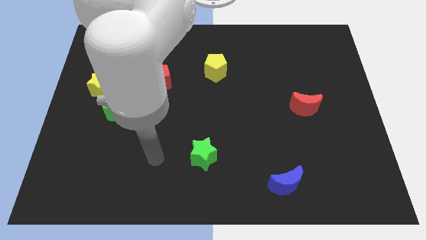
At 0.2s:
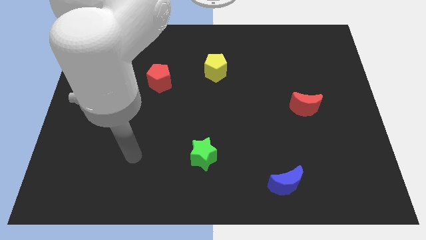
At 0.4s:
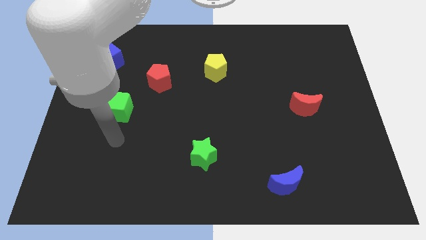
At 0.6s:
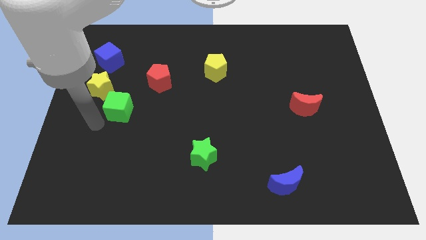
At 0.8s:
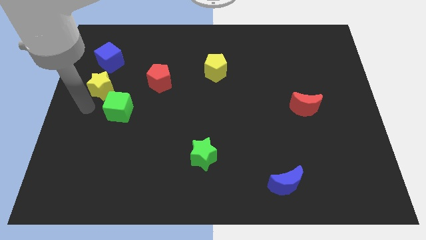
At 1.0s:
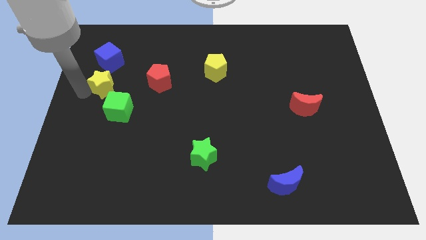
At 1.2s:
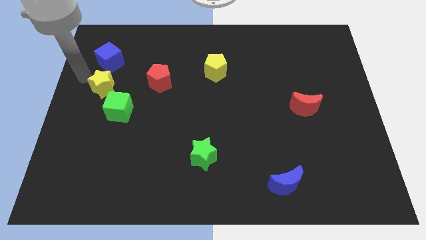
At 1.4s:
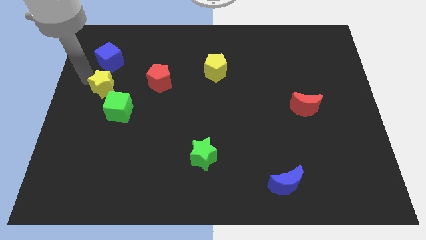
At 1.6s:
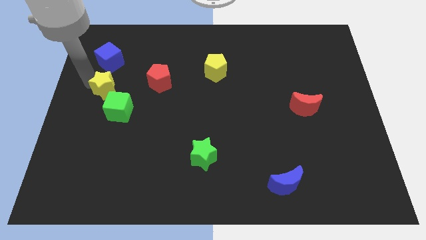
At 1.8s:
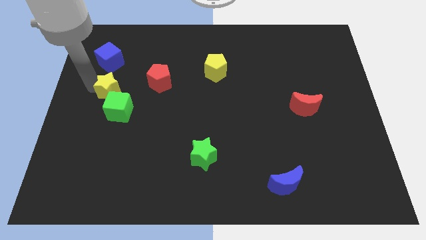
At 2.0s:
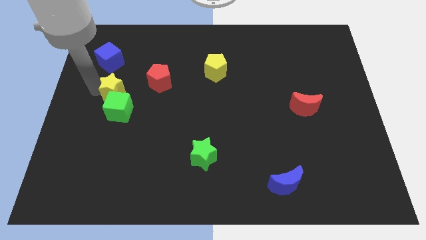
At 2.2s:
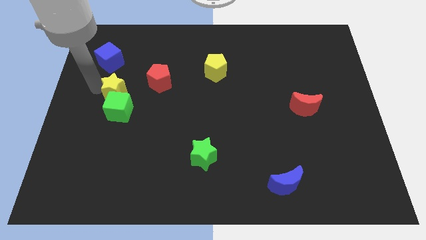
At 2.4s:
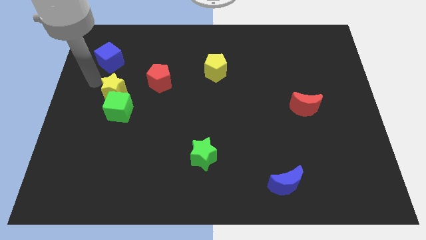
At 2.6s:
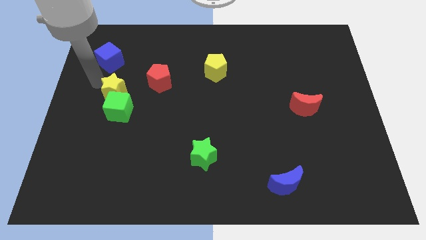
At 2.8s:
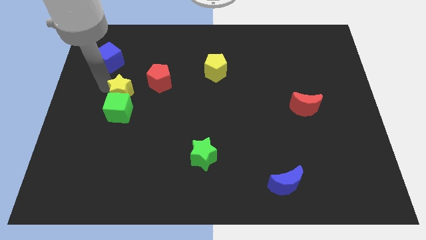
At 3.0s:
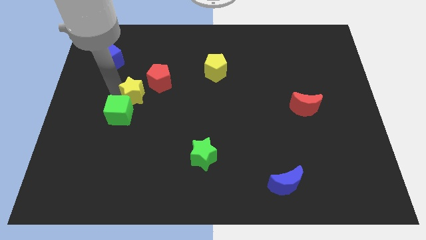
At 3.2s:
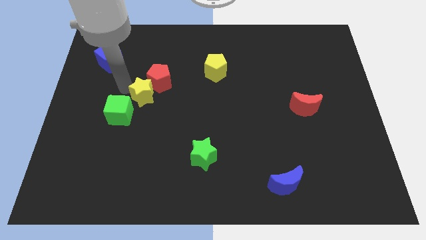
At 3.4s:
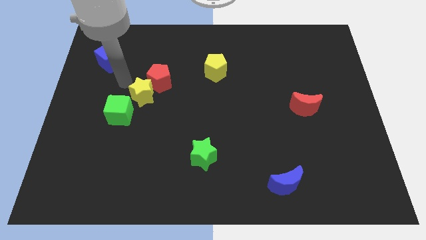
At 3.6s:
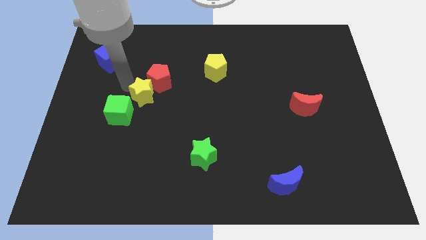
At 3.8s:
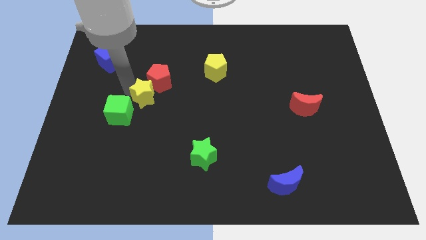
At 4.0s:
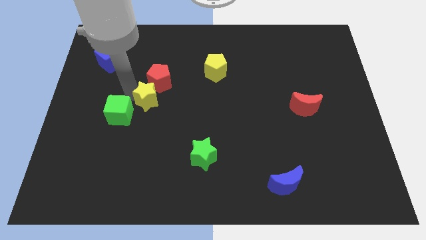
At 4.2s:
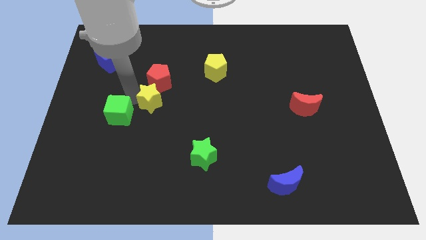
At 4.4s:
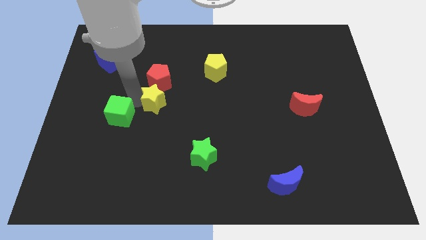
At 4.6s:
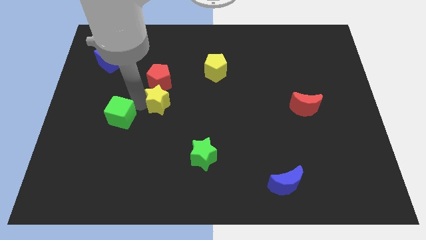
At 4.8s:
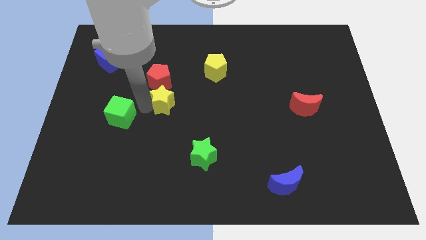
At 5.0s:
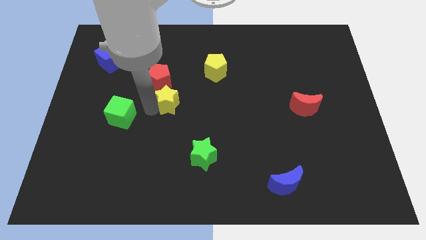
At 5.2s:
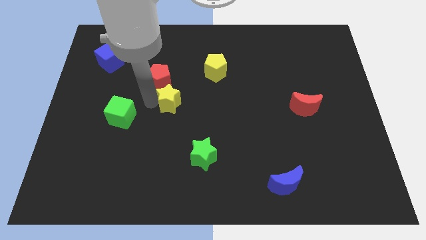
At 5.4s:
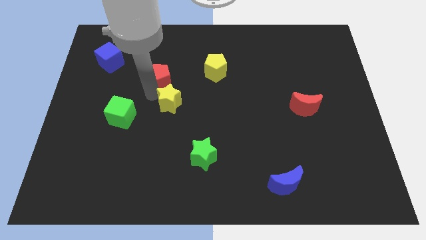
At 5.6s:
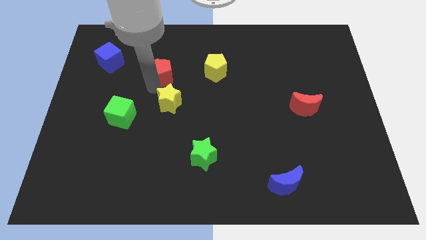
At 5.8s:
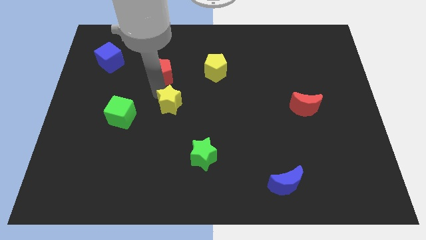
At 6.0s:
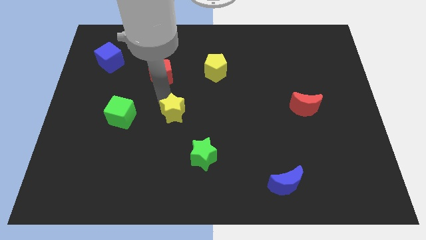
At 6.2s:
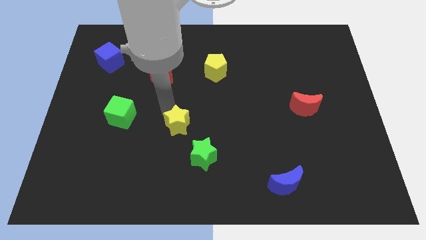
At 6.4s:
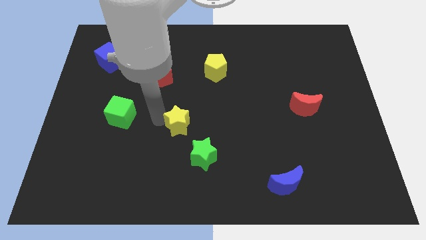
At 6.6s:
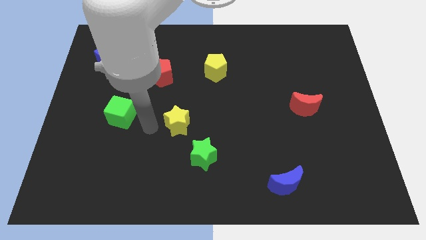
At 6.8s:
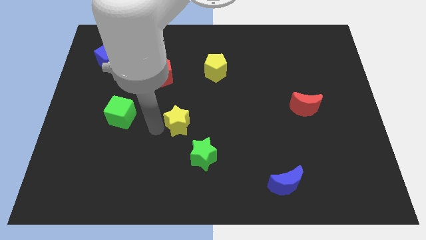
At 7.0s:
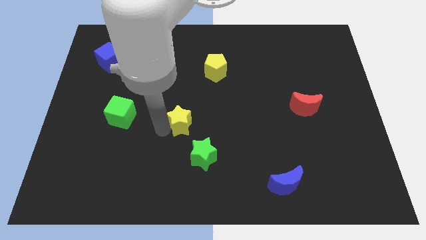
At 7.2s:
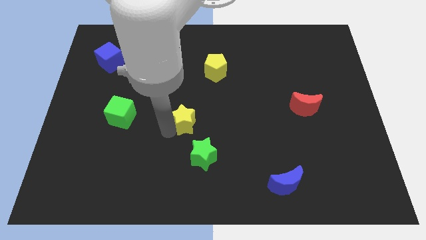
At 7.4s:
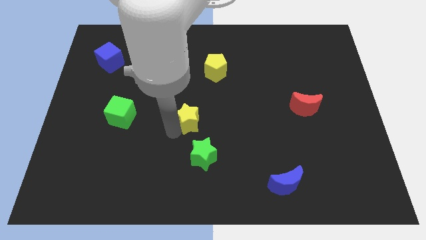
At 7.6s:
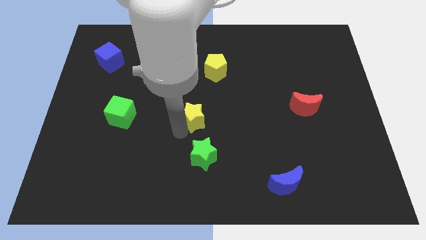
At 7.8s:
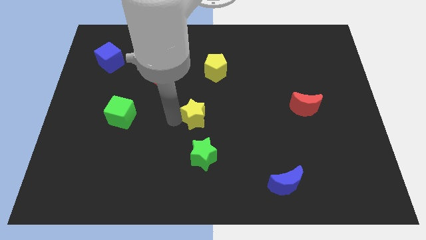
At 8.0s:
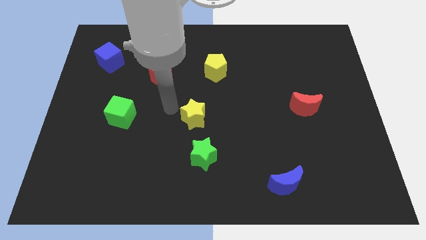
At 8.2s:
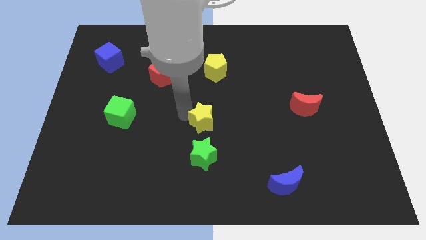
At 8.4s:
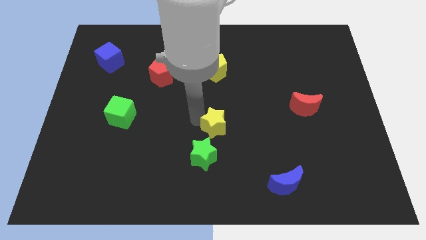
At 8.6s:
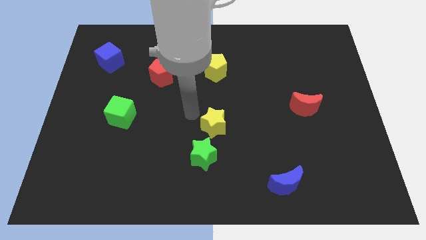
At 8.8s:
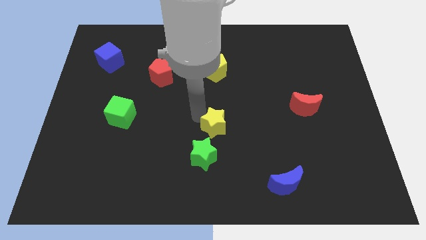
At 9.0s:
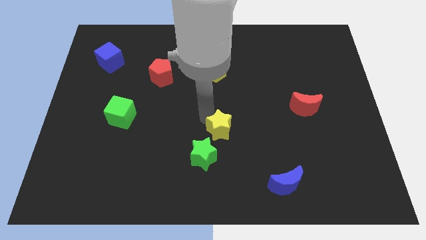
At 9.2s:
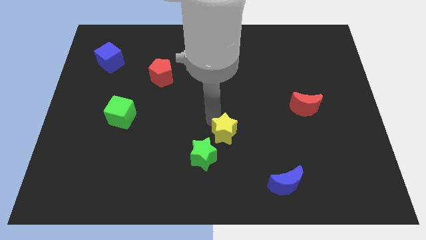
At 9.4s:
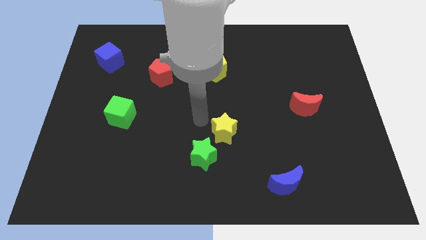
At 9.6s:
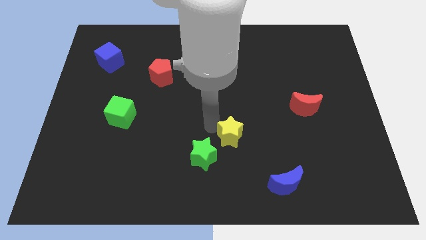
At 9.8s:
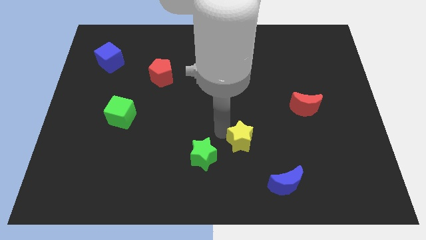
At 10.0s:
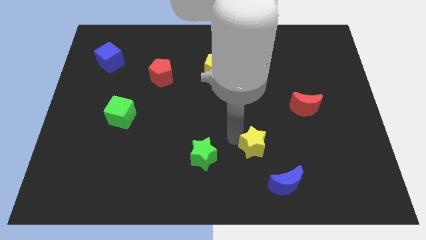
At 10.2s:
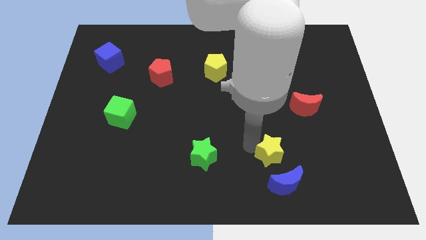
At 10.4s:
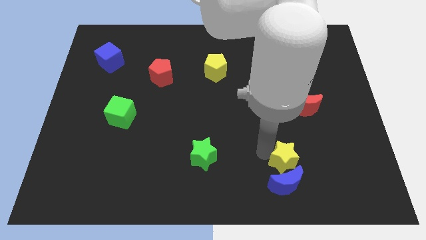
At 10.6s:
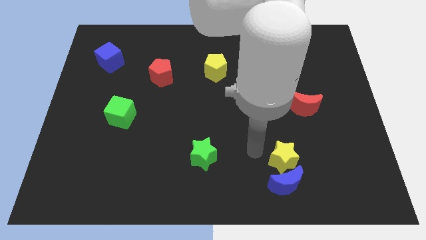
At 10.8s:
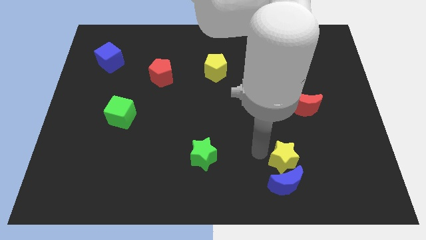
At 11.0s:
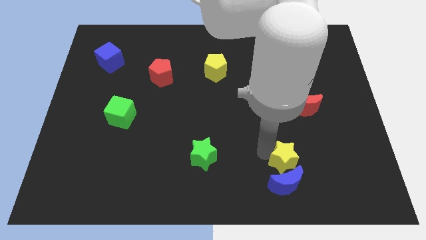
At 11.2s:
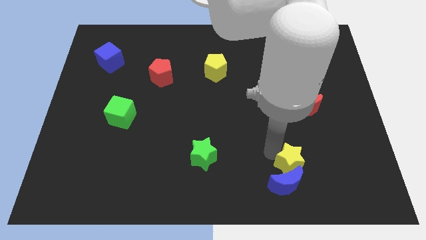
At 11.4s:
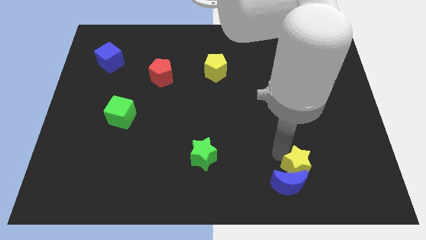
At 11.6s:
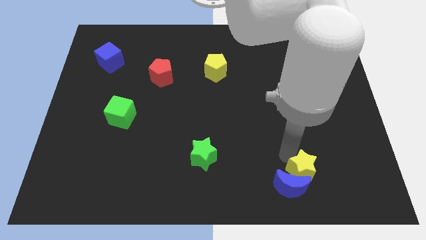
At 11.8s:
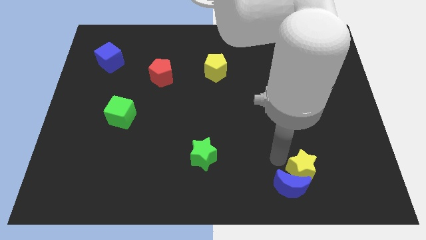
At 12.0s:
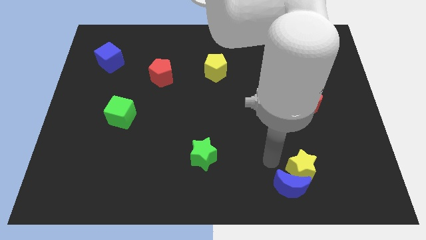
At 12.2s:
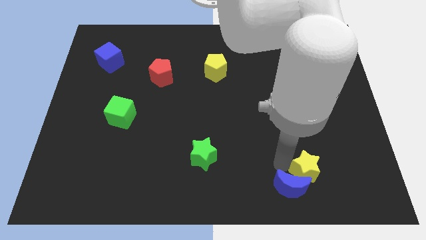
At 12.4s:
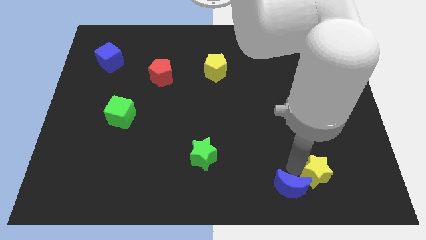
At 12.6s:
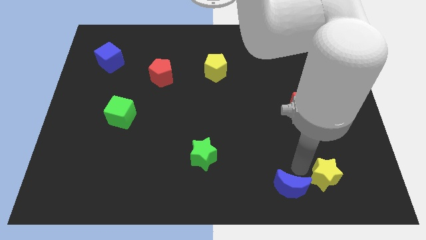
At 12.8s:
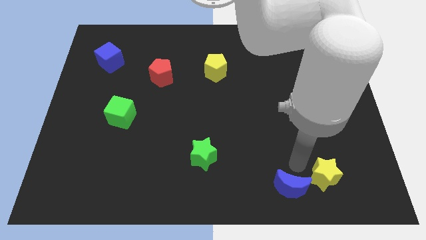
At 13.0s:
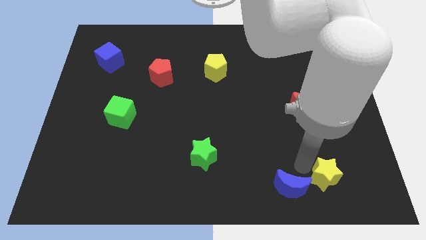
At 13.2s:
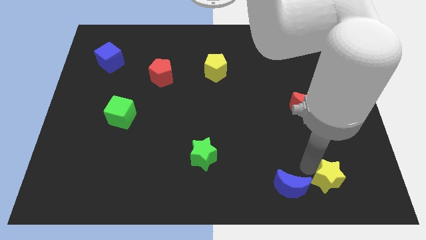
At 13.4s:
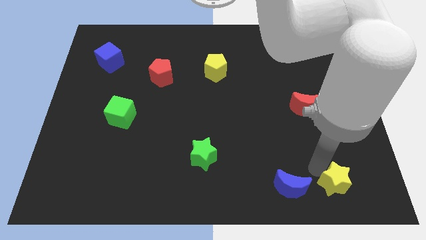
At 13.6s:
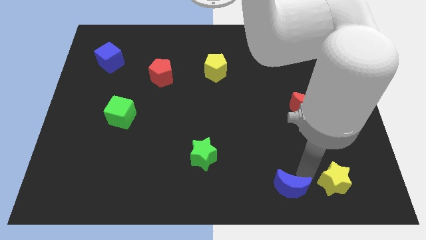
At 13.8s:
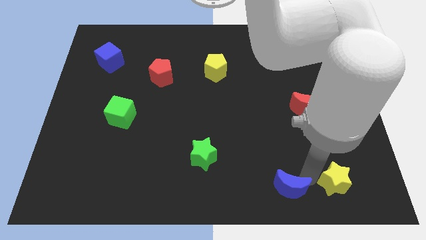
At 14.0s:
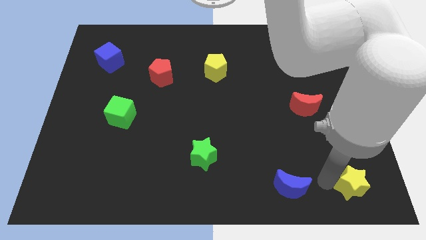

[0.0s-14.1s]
push the yellow star to the bottom right corner

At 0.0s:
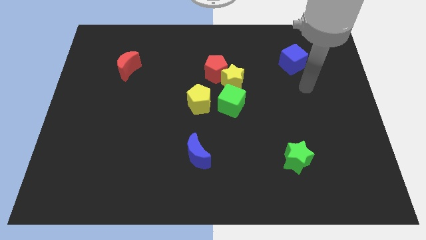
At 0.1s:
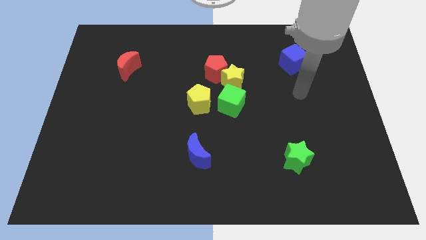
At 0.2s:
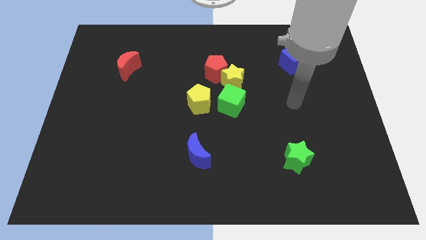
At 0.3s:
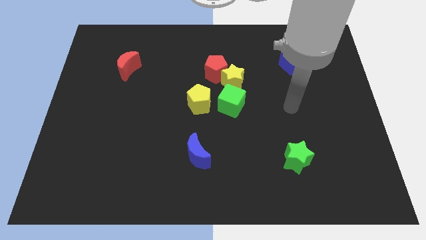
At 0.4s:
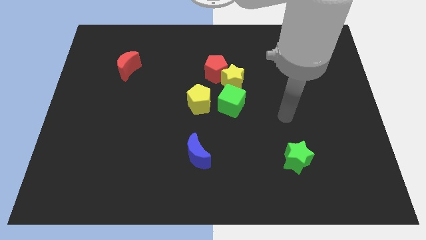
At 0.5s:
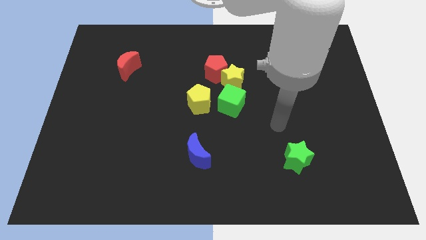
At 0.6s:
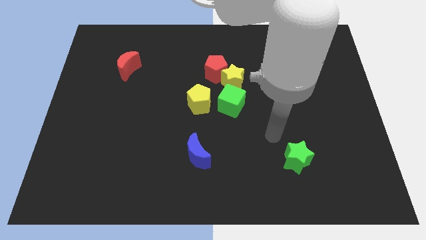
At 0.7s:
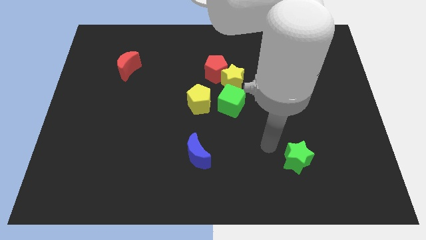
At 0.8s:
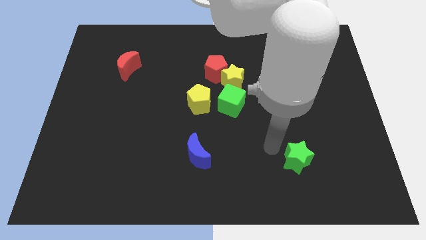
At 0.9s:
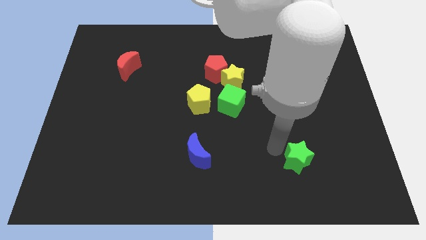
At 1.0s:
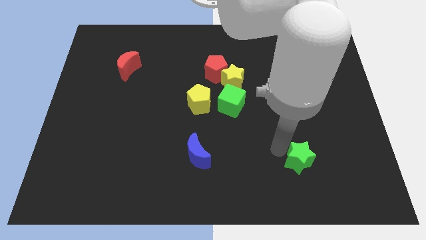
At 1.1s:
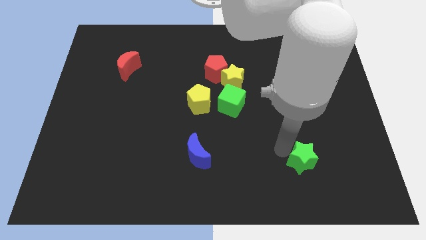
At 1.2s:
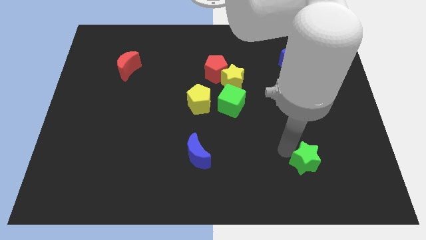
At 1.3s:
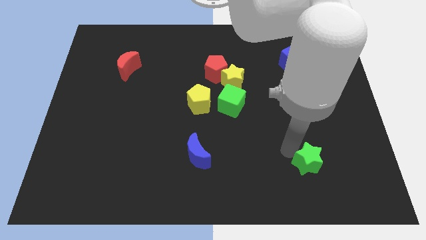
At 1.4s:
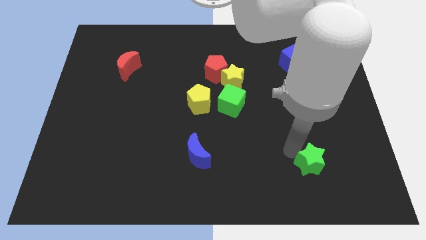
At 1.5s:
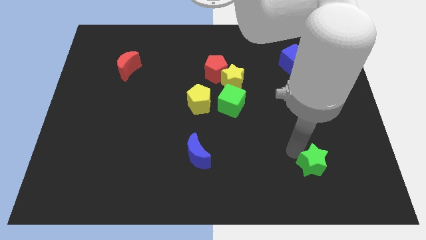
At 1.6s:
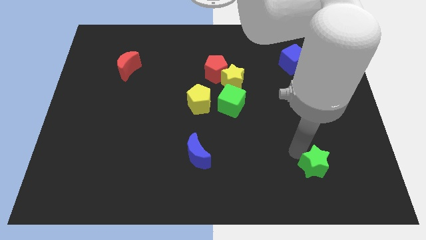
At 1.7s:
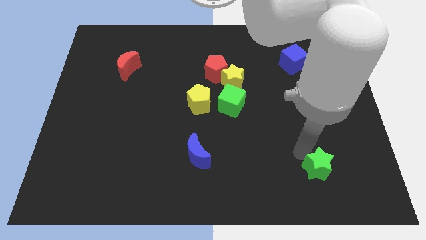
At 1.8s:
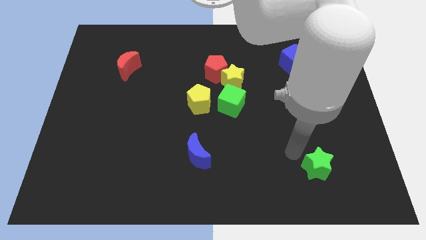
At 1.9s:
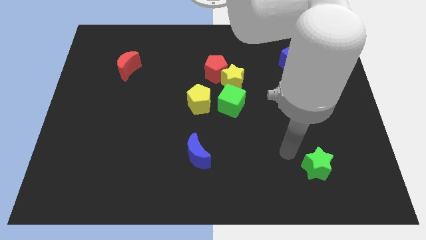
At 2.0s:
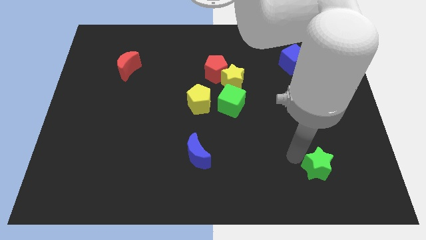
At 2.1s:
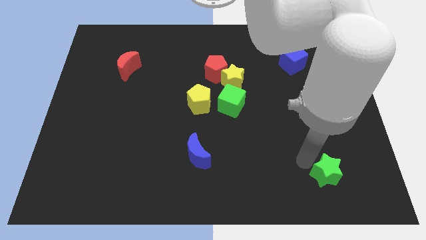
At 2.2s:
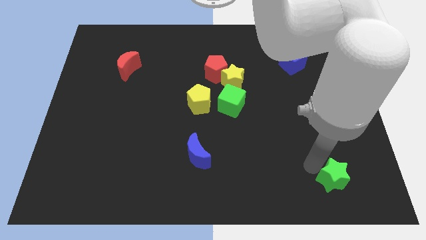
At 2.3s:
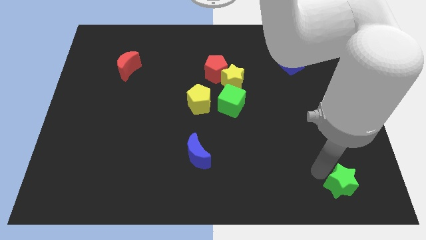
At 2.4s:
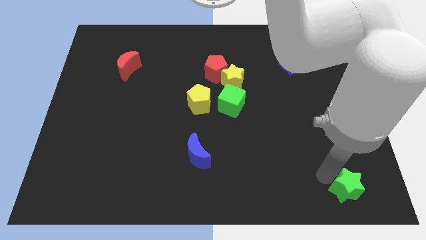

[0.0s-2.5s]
push the green star to the bottom right corner
